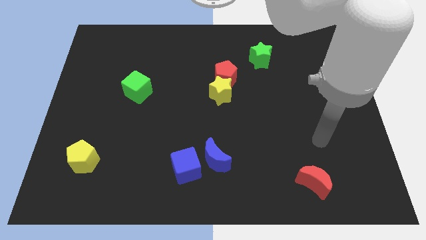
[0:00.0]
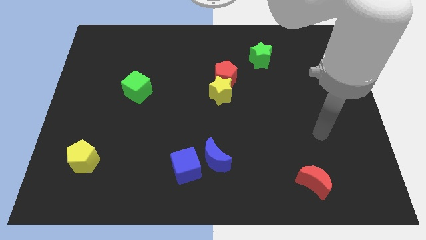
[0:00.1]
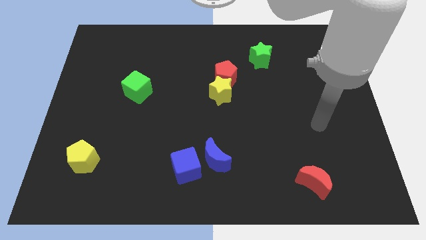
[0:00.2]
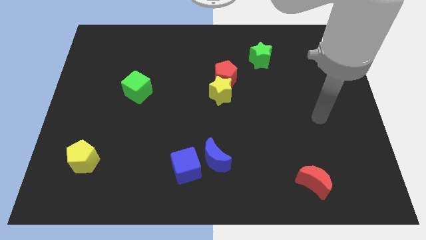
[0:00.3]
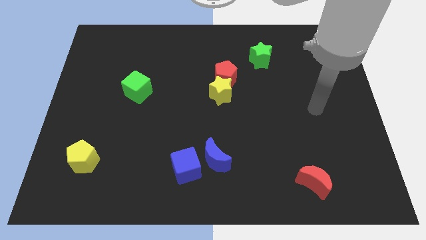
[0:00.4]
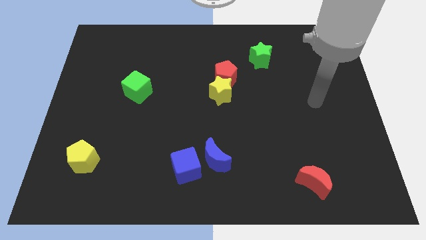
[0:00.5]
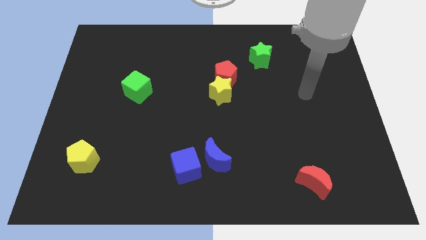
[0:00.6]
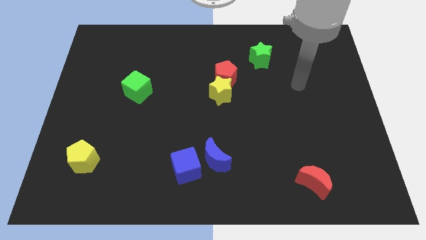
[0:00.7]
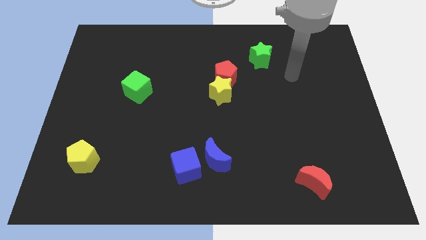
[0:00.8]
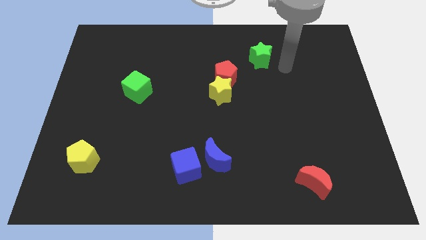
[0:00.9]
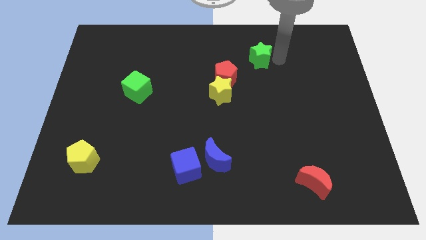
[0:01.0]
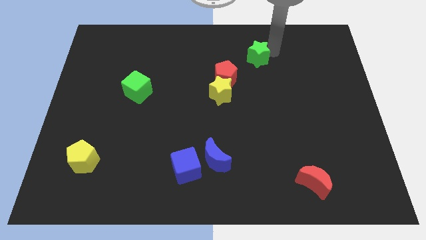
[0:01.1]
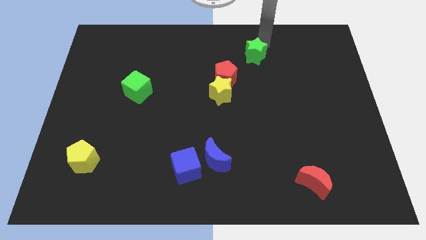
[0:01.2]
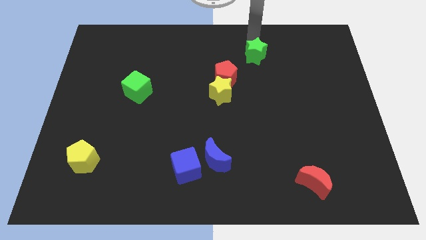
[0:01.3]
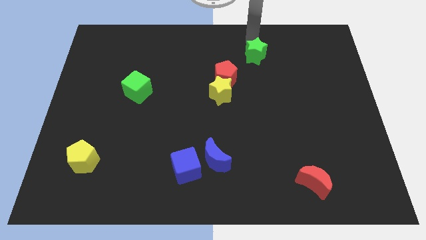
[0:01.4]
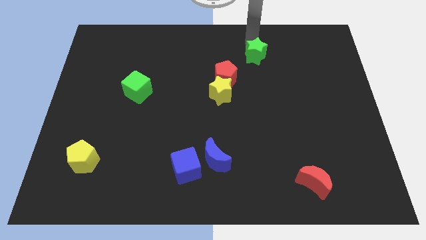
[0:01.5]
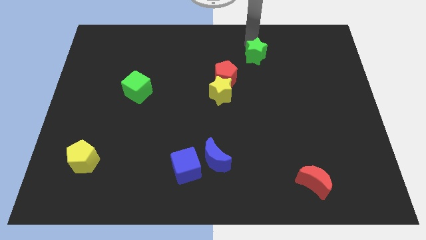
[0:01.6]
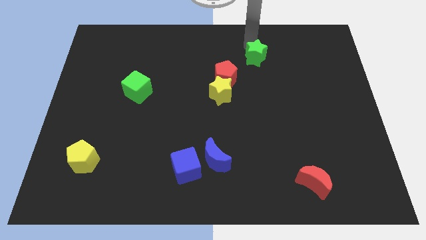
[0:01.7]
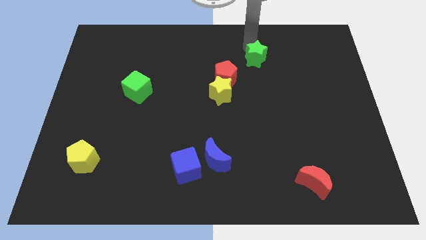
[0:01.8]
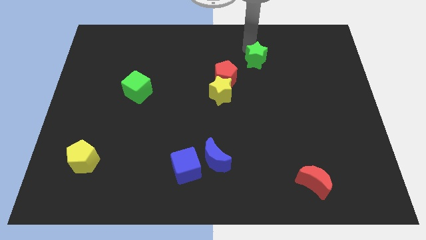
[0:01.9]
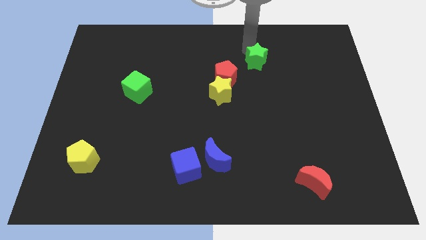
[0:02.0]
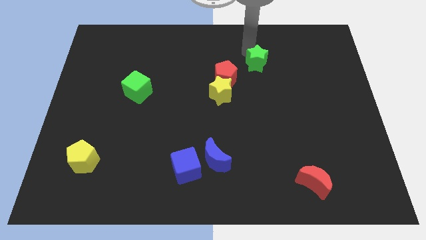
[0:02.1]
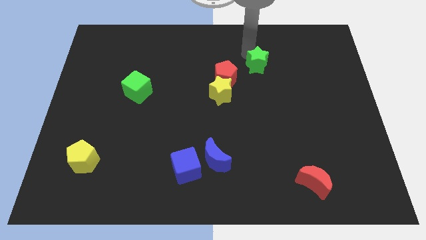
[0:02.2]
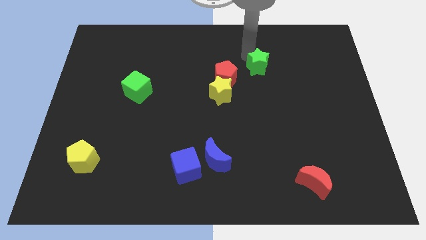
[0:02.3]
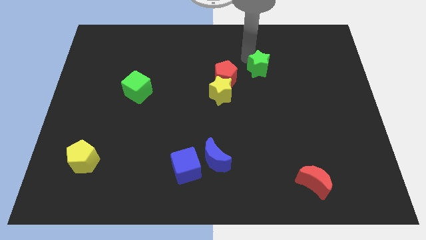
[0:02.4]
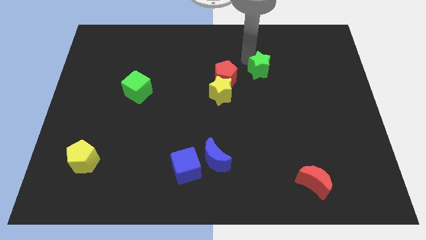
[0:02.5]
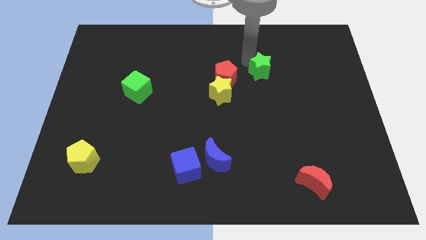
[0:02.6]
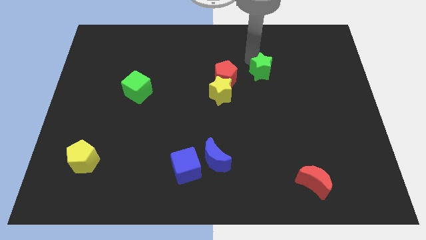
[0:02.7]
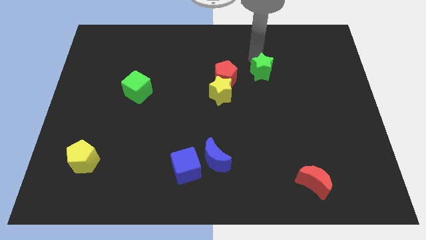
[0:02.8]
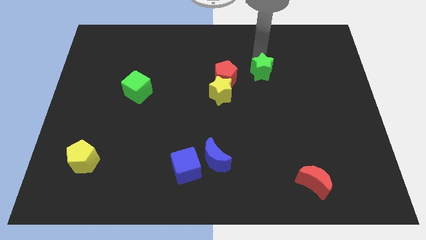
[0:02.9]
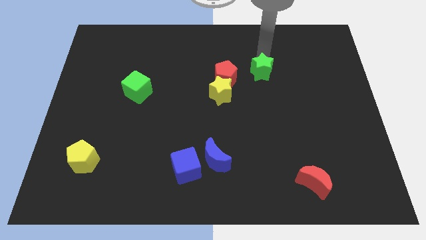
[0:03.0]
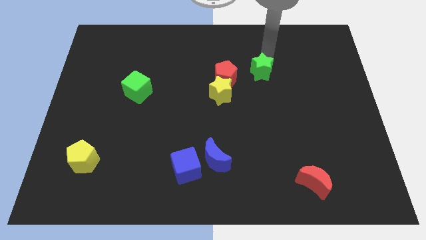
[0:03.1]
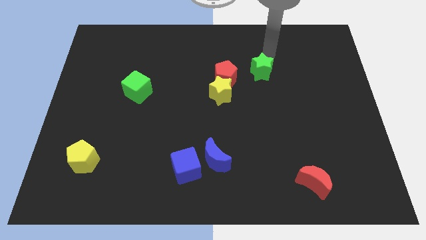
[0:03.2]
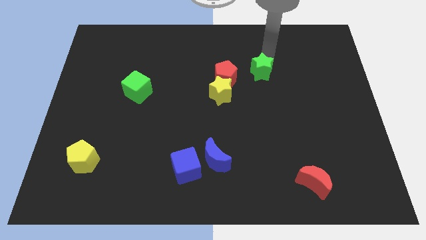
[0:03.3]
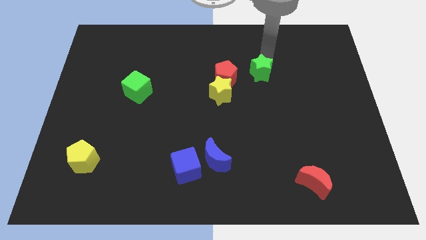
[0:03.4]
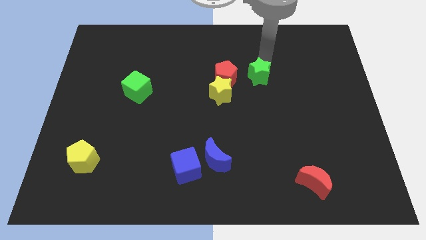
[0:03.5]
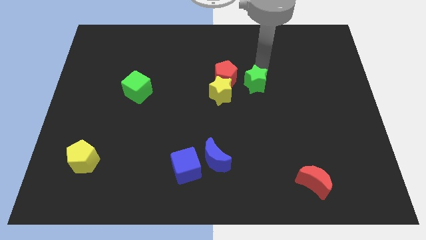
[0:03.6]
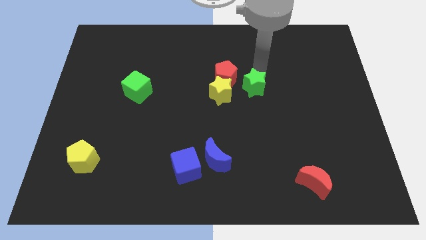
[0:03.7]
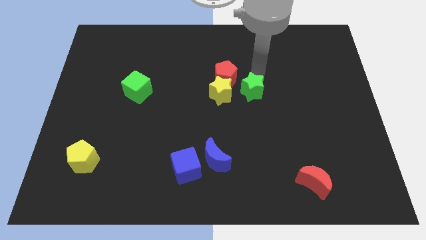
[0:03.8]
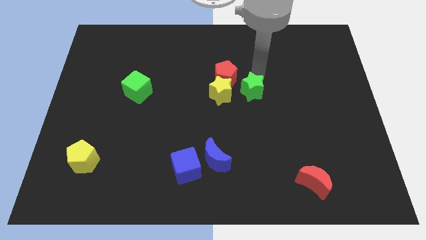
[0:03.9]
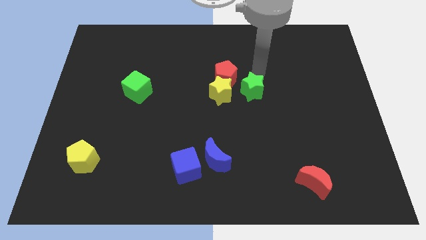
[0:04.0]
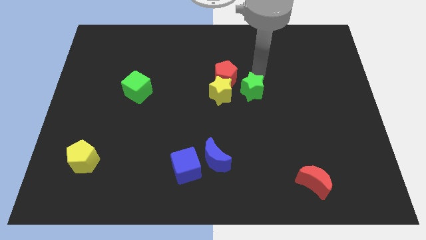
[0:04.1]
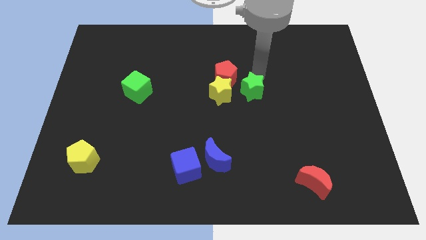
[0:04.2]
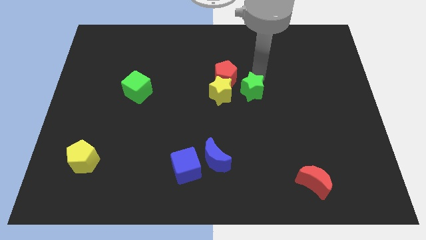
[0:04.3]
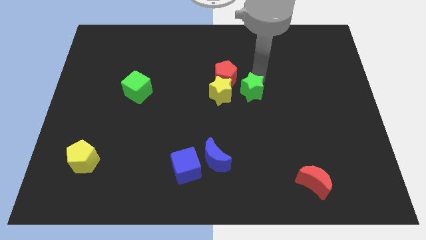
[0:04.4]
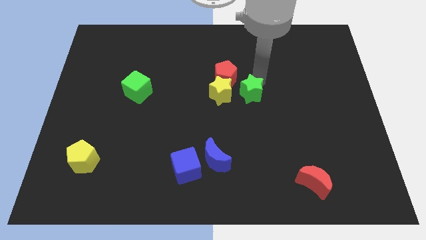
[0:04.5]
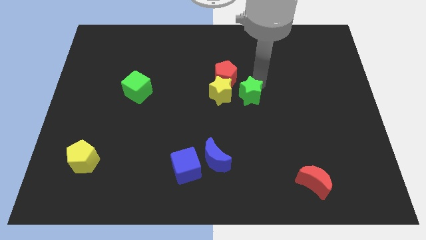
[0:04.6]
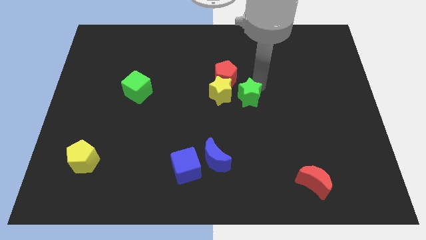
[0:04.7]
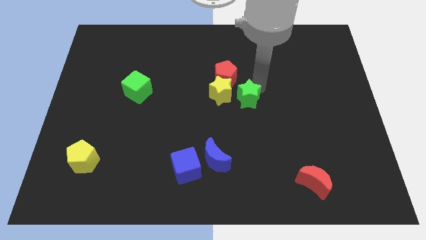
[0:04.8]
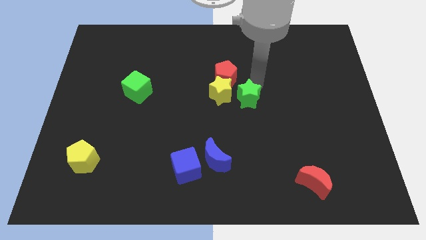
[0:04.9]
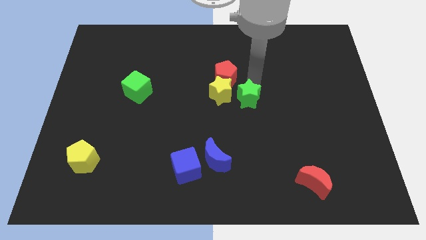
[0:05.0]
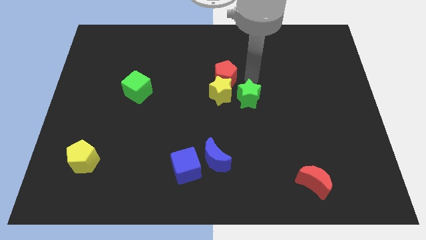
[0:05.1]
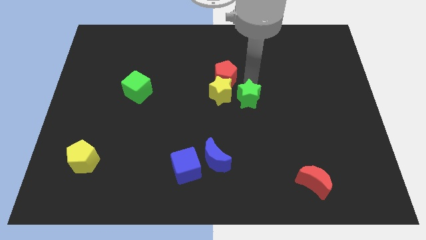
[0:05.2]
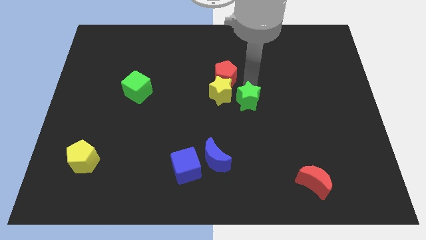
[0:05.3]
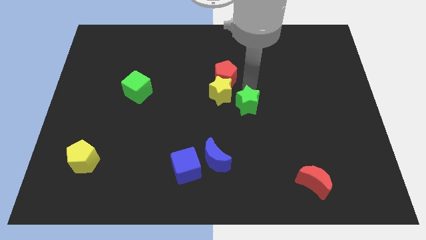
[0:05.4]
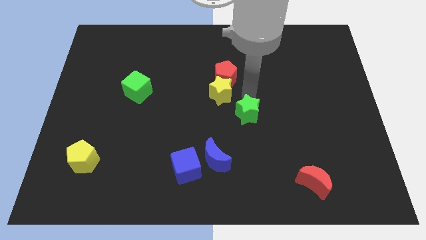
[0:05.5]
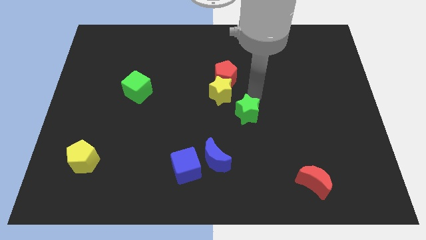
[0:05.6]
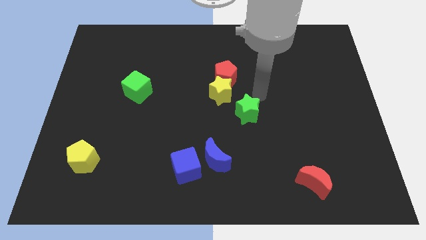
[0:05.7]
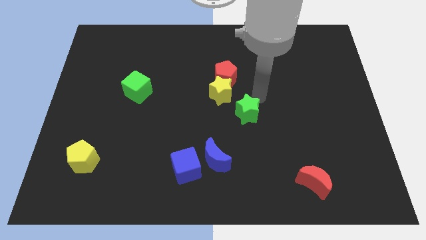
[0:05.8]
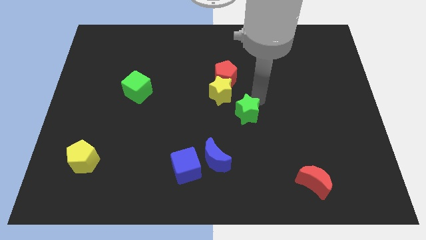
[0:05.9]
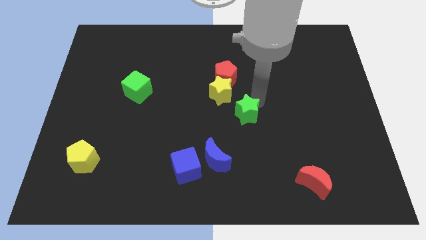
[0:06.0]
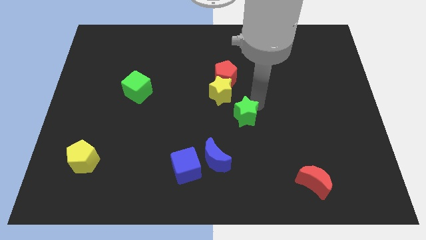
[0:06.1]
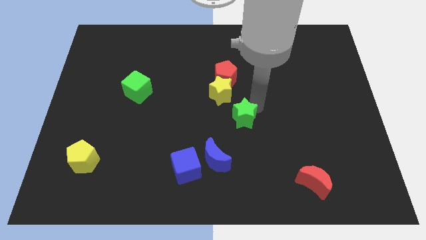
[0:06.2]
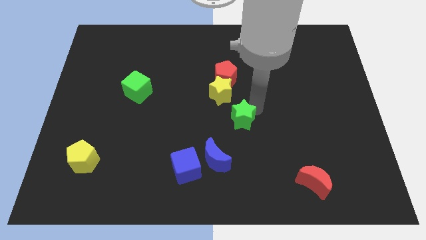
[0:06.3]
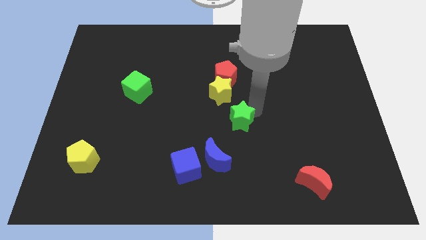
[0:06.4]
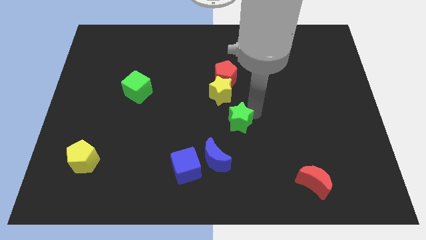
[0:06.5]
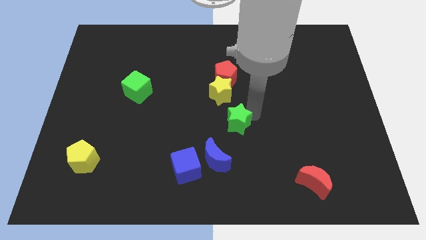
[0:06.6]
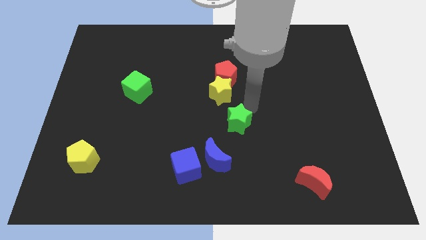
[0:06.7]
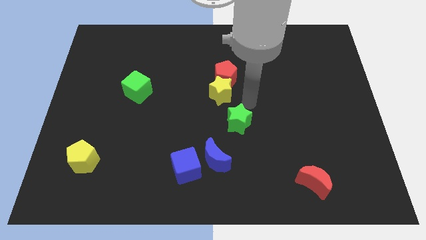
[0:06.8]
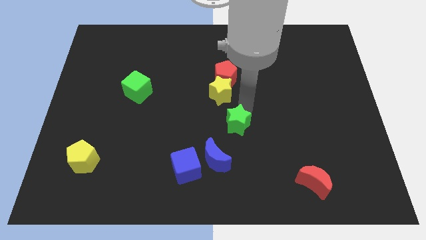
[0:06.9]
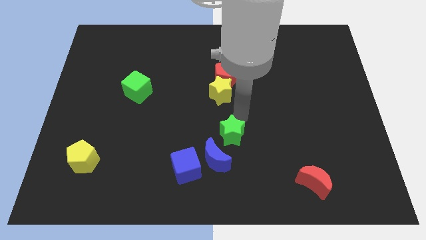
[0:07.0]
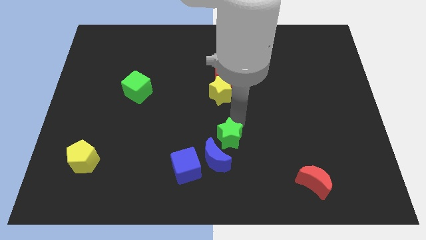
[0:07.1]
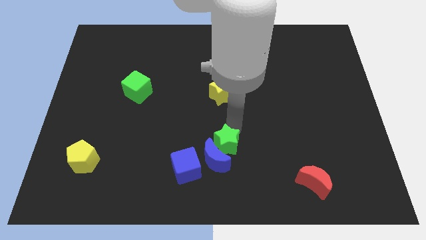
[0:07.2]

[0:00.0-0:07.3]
put the green star to the blue moon

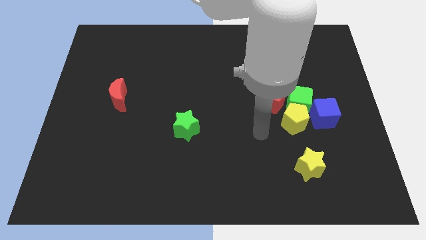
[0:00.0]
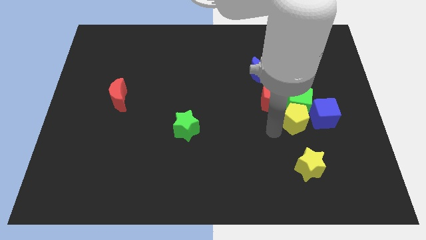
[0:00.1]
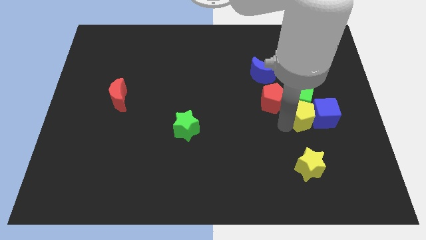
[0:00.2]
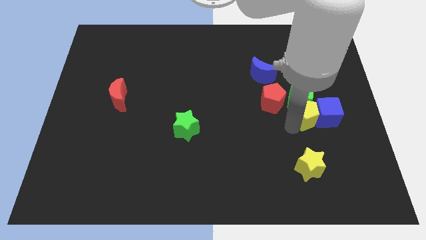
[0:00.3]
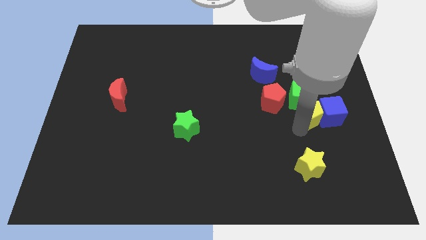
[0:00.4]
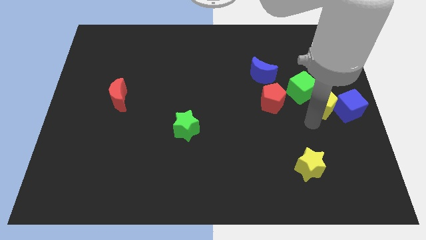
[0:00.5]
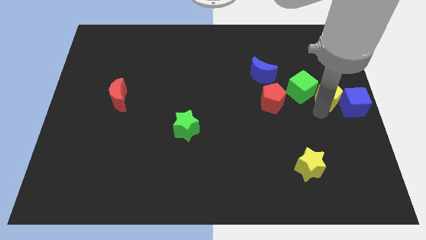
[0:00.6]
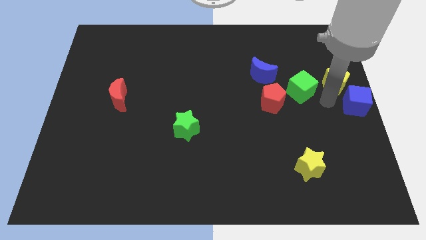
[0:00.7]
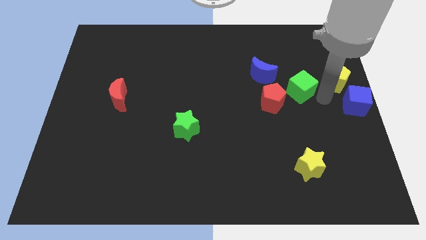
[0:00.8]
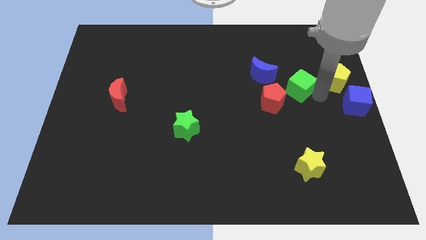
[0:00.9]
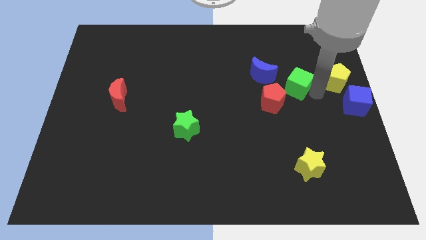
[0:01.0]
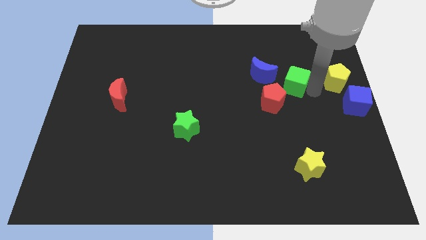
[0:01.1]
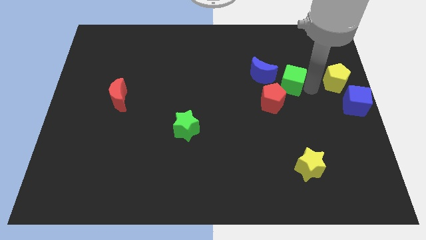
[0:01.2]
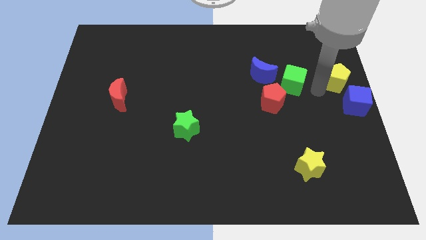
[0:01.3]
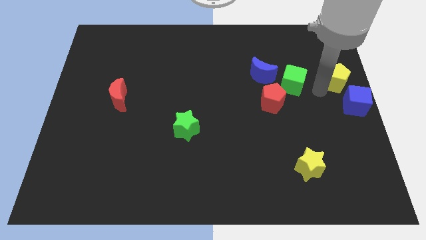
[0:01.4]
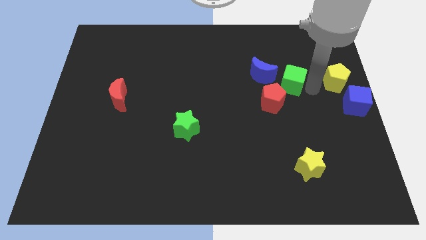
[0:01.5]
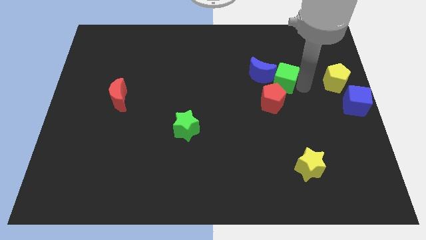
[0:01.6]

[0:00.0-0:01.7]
push the green cube towards the blue moon
